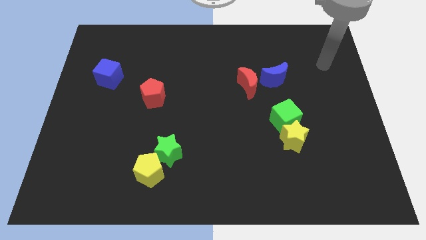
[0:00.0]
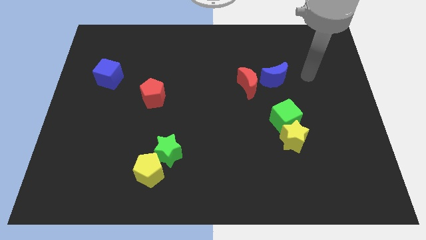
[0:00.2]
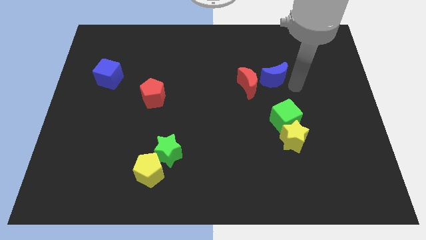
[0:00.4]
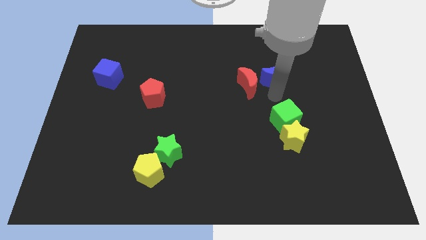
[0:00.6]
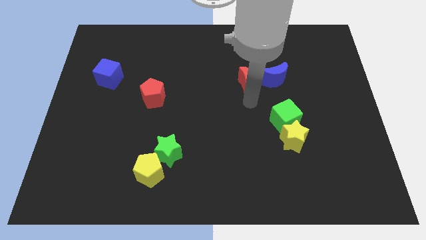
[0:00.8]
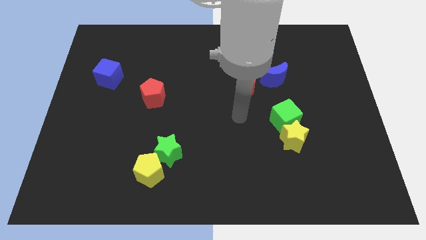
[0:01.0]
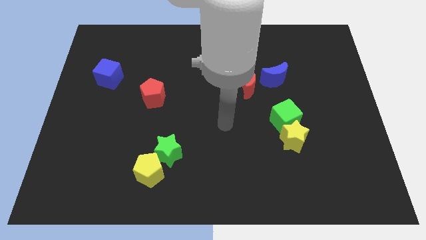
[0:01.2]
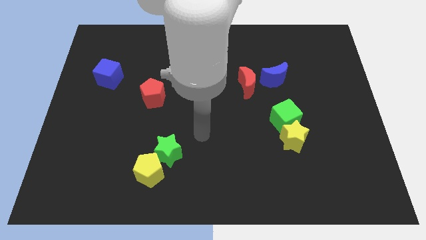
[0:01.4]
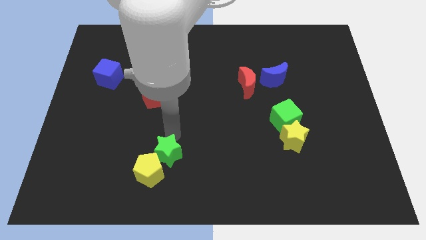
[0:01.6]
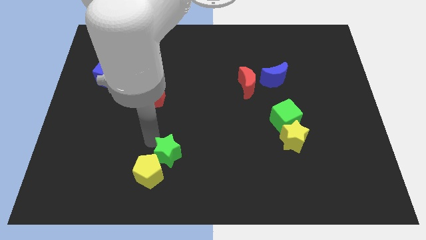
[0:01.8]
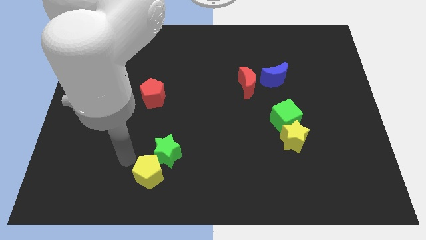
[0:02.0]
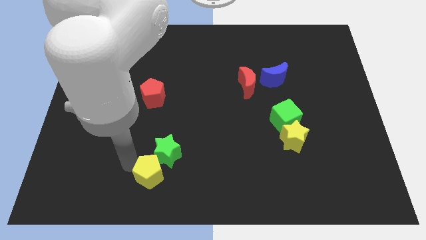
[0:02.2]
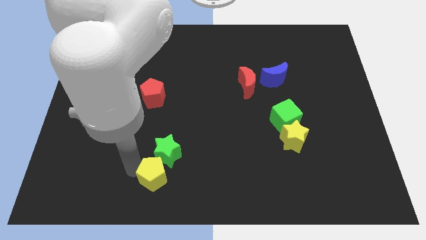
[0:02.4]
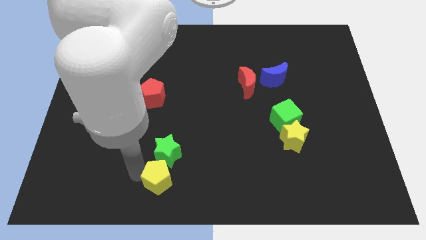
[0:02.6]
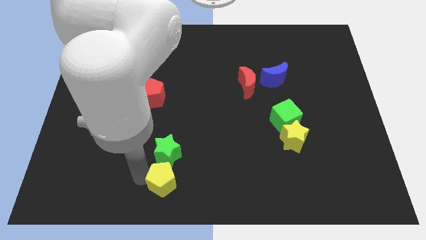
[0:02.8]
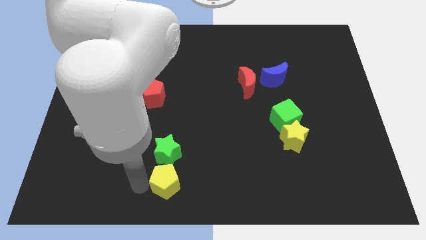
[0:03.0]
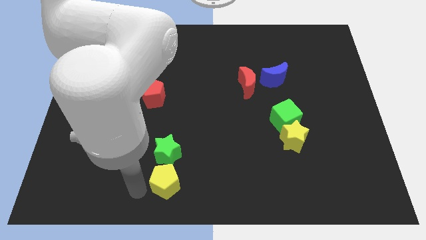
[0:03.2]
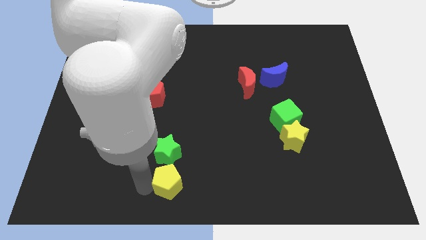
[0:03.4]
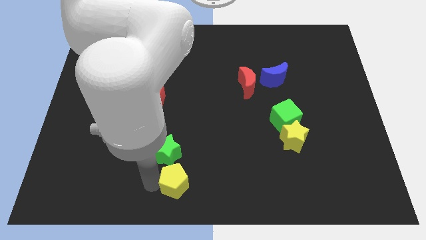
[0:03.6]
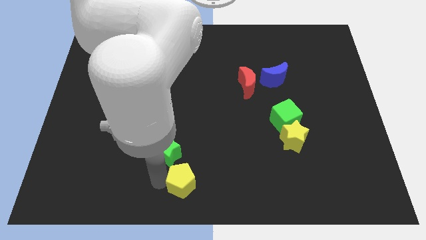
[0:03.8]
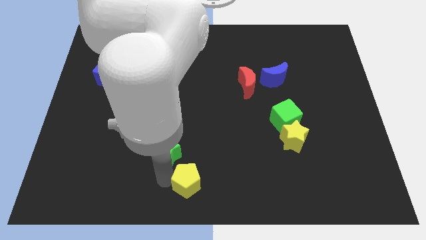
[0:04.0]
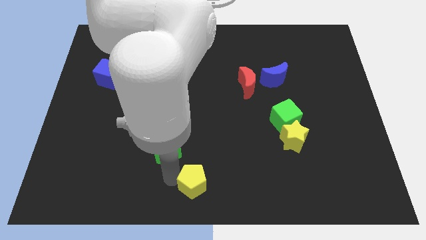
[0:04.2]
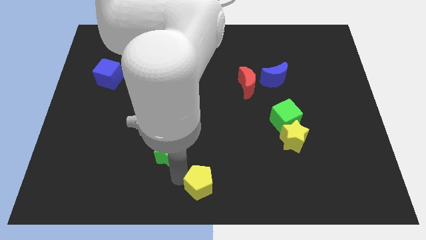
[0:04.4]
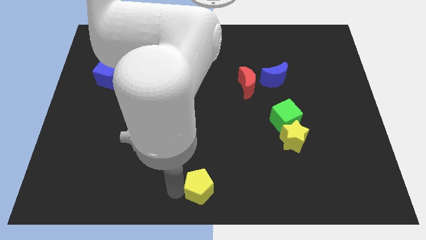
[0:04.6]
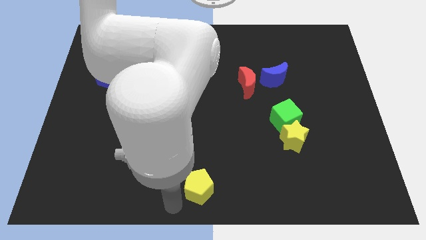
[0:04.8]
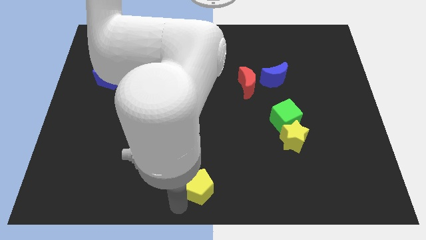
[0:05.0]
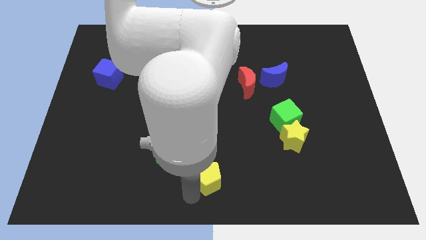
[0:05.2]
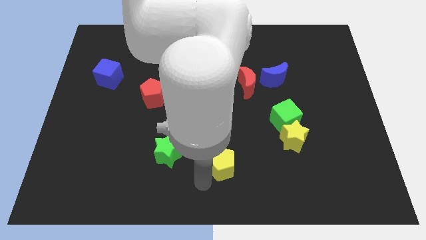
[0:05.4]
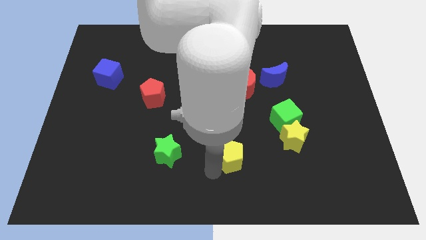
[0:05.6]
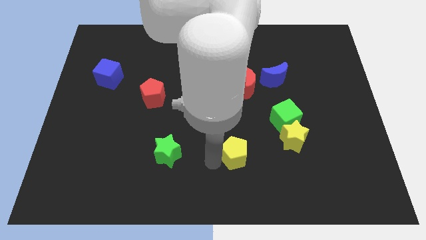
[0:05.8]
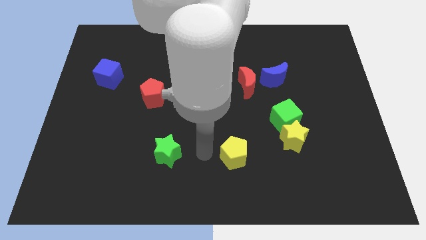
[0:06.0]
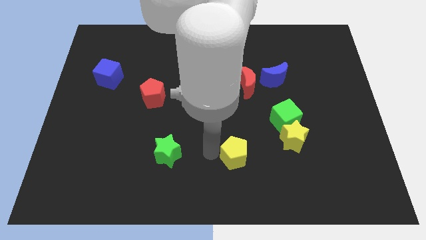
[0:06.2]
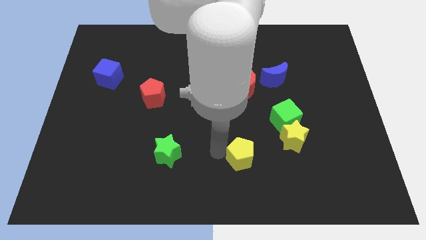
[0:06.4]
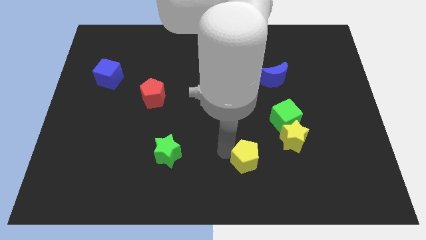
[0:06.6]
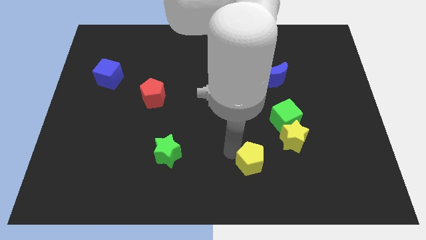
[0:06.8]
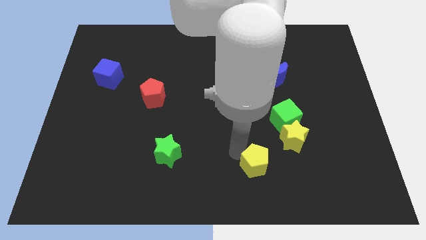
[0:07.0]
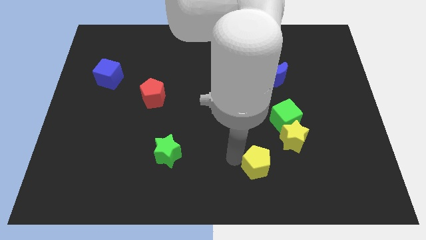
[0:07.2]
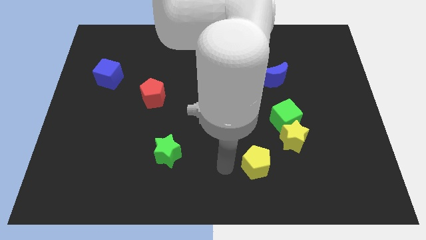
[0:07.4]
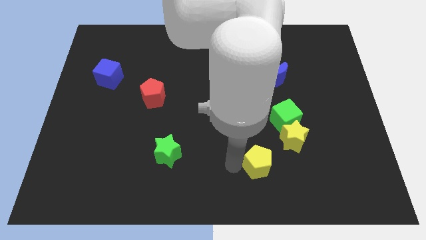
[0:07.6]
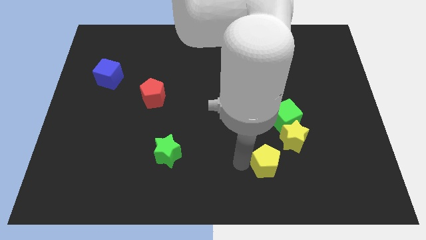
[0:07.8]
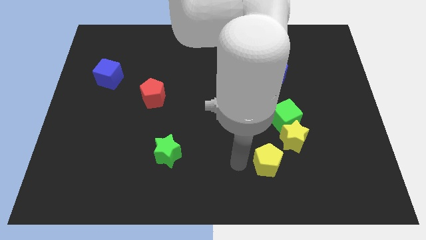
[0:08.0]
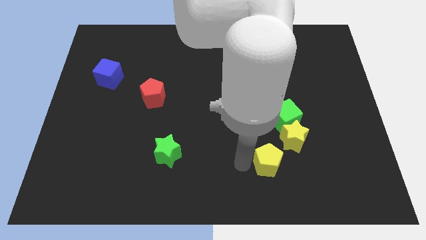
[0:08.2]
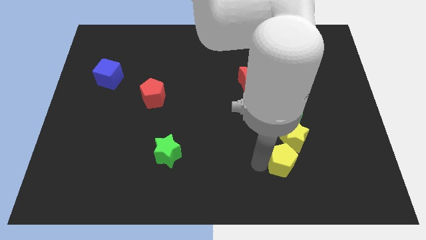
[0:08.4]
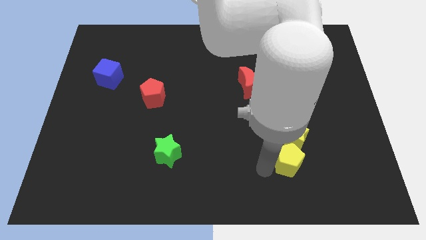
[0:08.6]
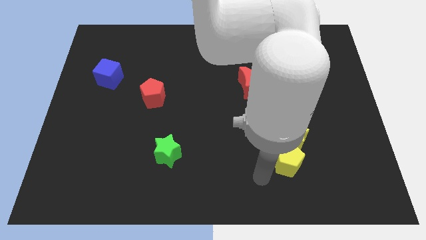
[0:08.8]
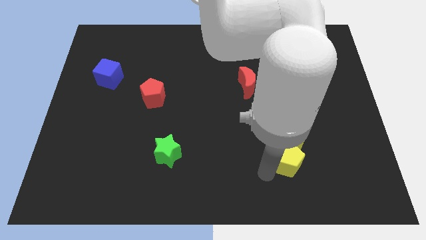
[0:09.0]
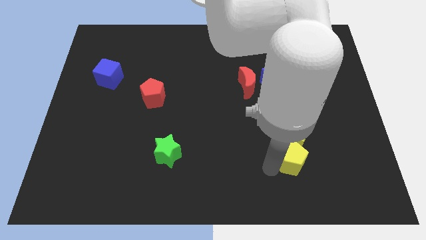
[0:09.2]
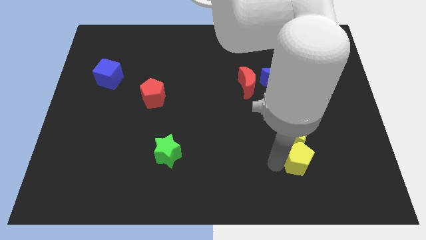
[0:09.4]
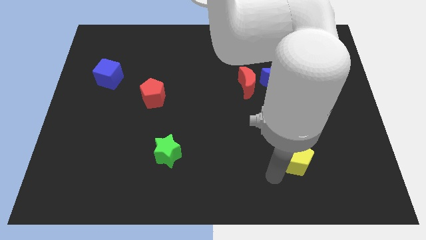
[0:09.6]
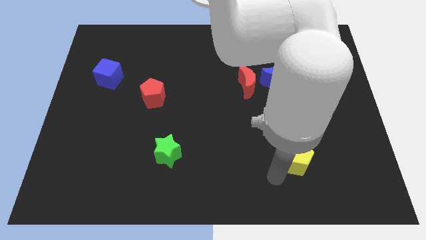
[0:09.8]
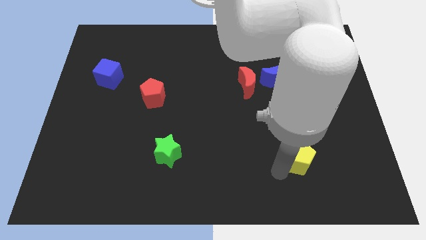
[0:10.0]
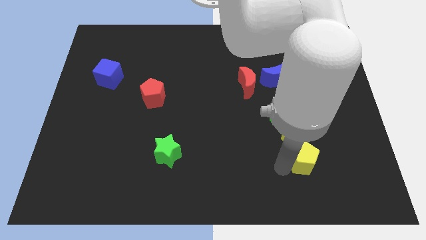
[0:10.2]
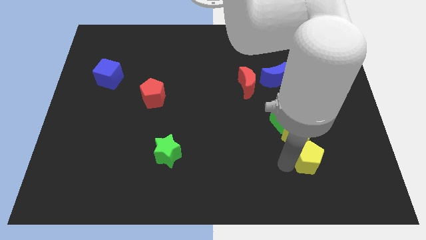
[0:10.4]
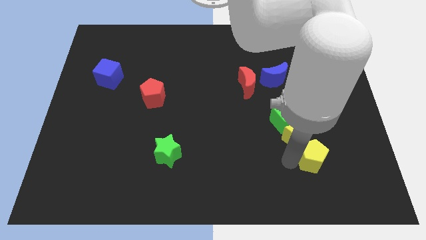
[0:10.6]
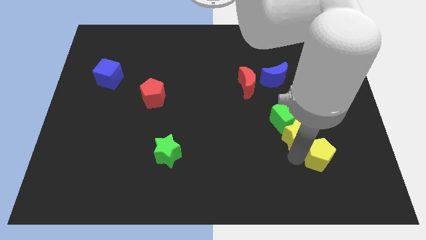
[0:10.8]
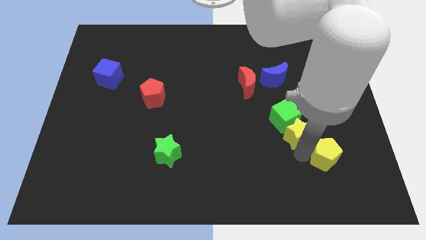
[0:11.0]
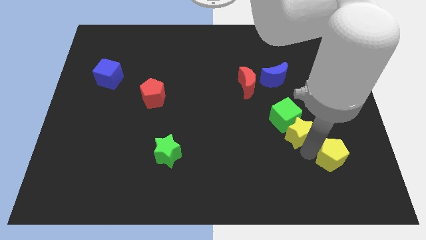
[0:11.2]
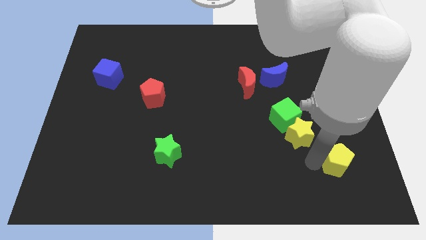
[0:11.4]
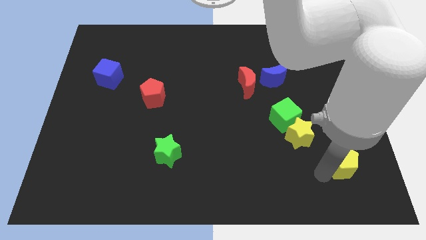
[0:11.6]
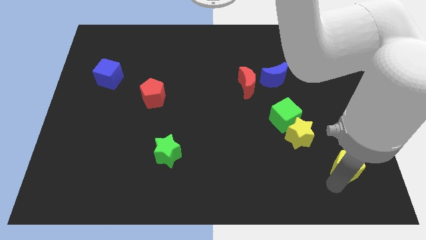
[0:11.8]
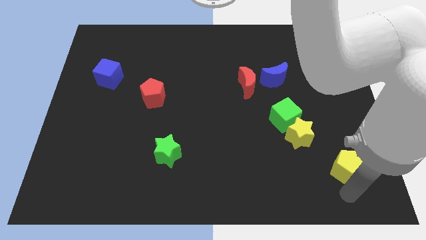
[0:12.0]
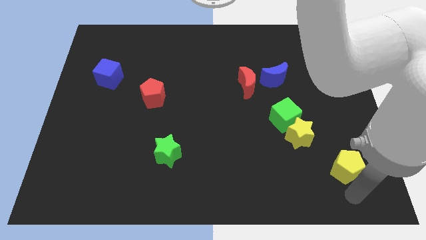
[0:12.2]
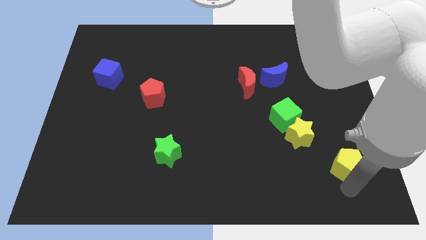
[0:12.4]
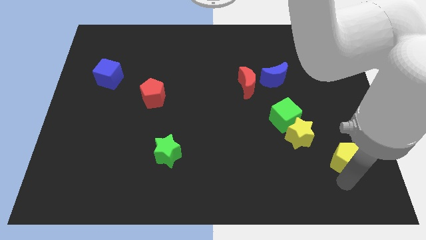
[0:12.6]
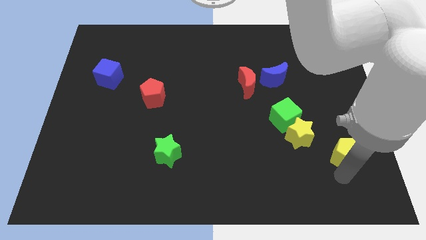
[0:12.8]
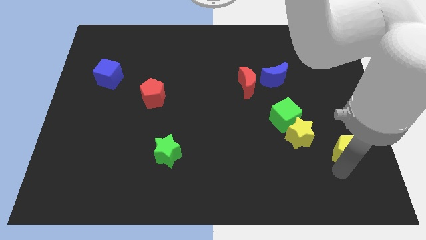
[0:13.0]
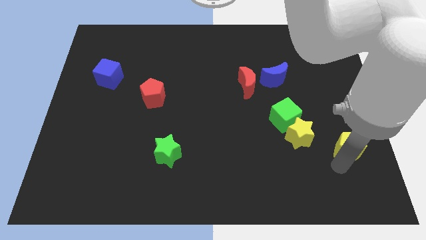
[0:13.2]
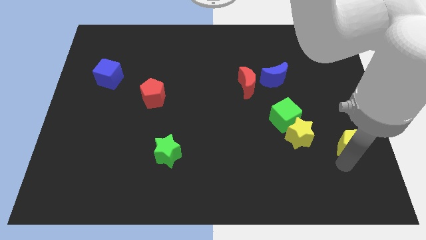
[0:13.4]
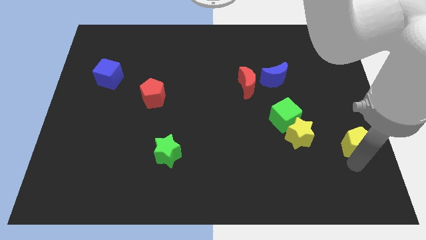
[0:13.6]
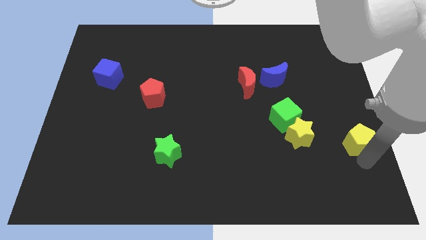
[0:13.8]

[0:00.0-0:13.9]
move the yellow pentagon to the right side of the board
